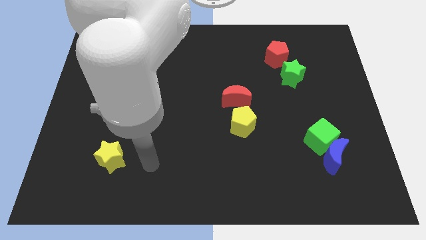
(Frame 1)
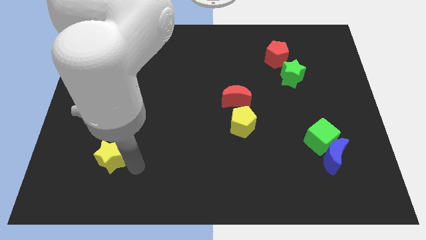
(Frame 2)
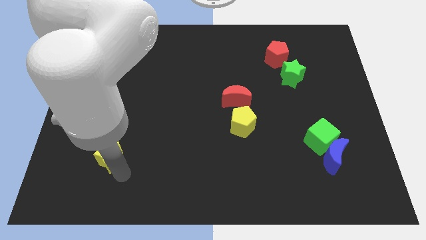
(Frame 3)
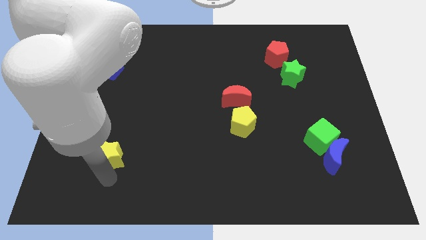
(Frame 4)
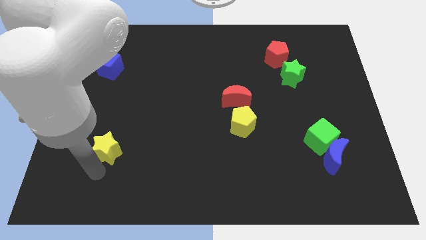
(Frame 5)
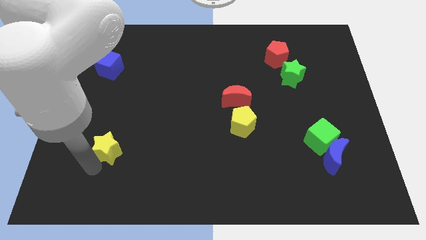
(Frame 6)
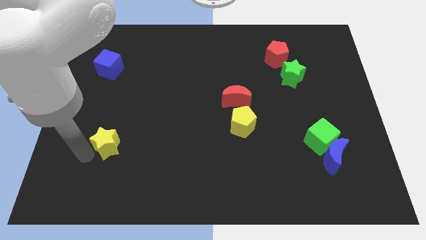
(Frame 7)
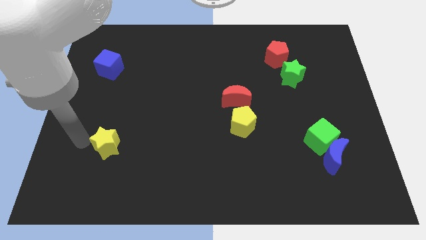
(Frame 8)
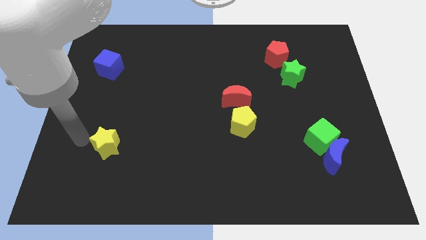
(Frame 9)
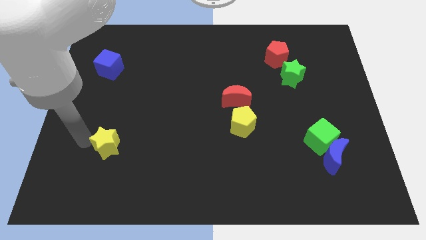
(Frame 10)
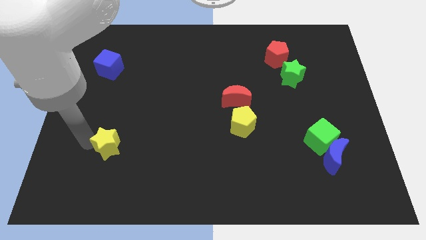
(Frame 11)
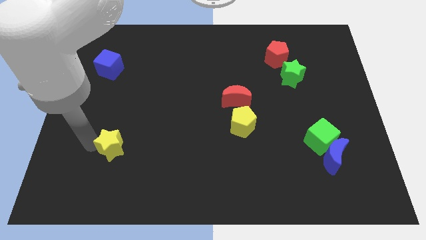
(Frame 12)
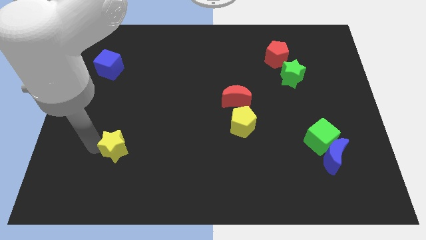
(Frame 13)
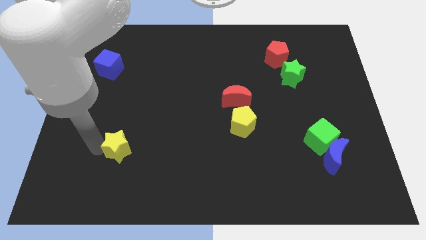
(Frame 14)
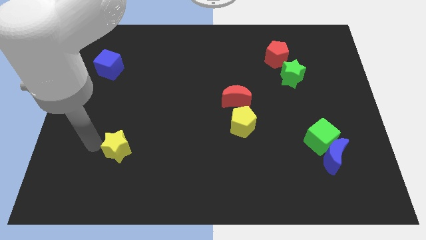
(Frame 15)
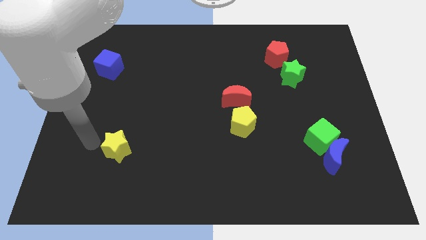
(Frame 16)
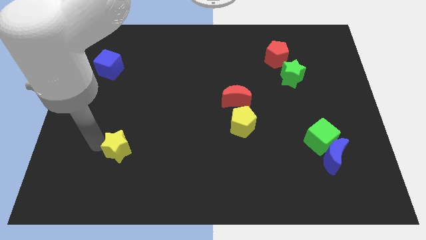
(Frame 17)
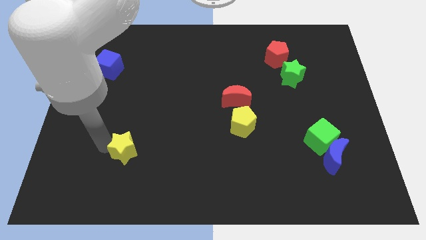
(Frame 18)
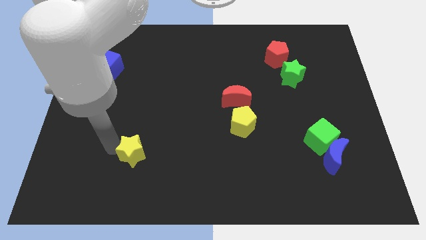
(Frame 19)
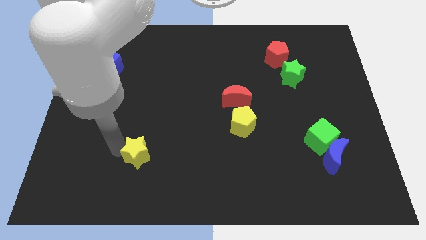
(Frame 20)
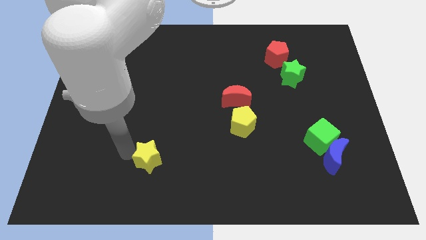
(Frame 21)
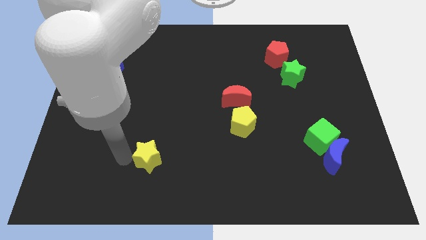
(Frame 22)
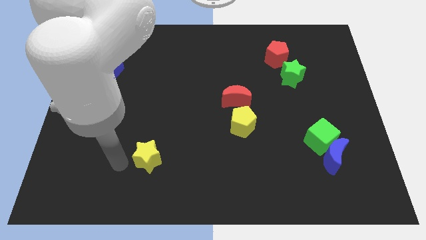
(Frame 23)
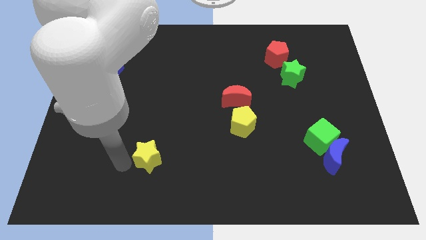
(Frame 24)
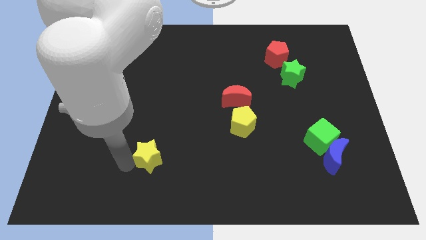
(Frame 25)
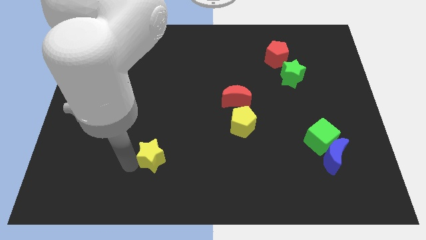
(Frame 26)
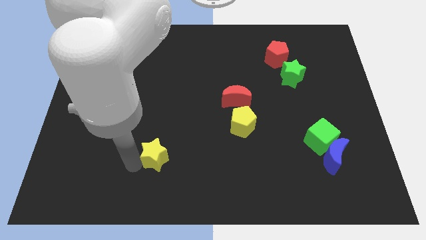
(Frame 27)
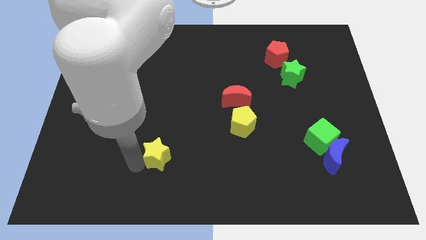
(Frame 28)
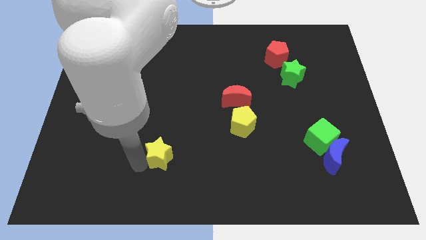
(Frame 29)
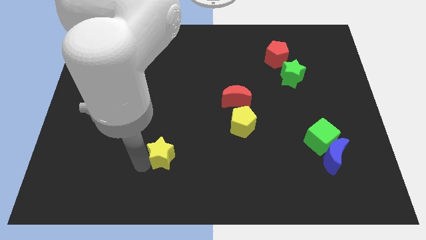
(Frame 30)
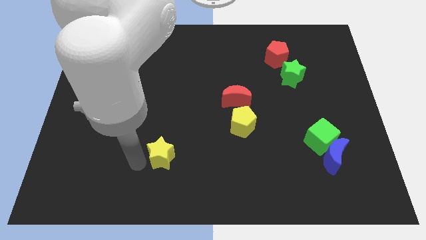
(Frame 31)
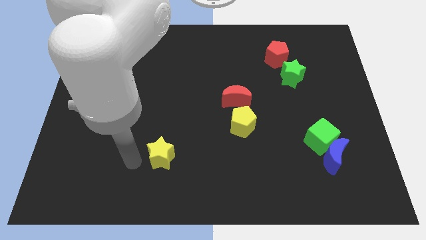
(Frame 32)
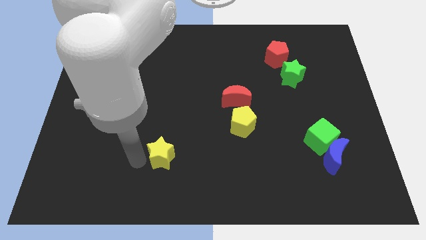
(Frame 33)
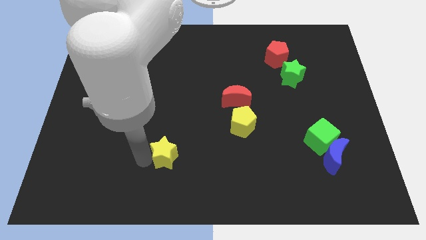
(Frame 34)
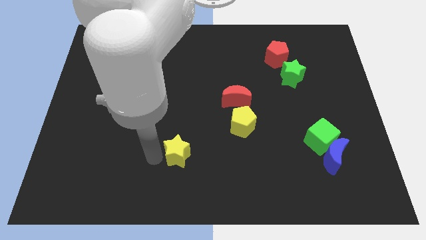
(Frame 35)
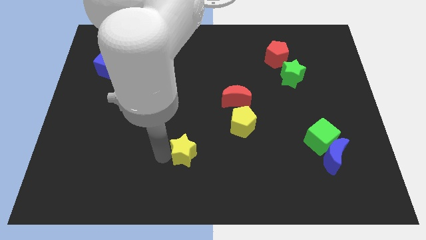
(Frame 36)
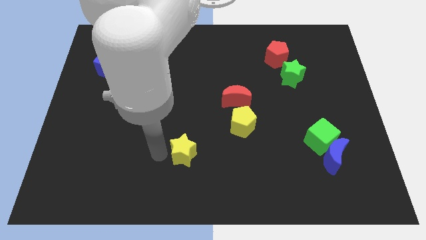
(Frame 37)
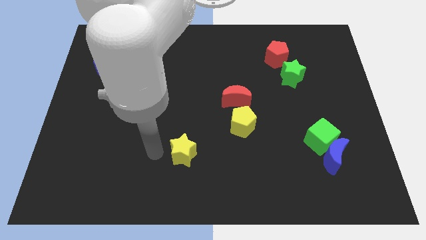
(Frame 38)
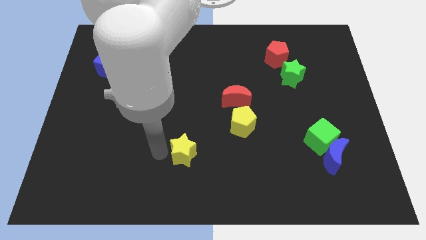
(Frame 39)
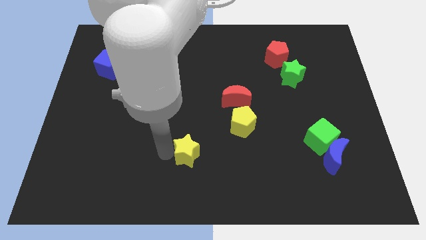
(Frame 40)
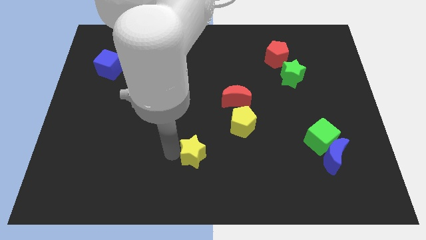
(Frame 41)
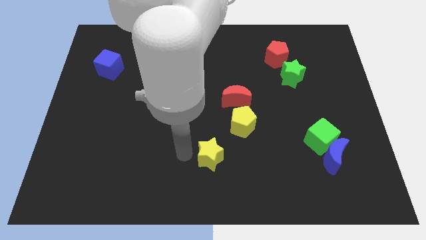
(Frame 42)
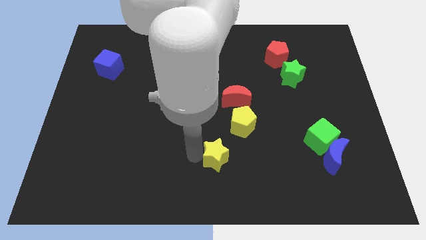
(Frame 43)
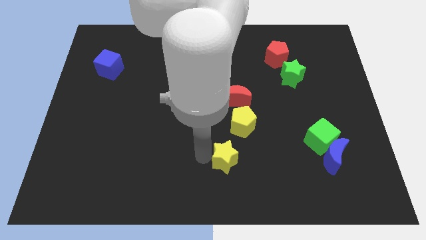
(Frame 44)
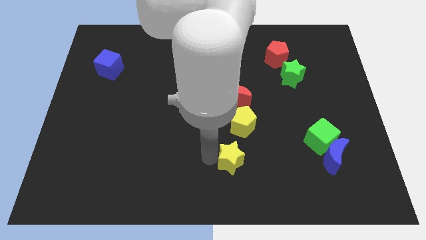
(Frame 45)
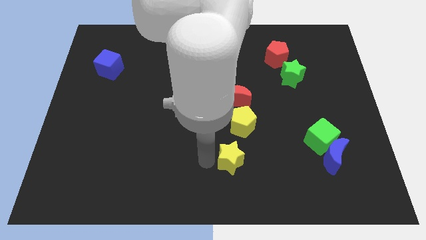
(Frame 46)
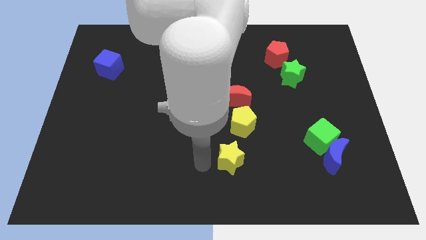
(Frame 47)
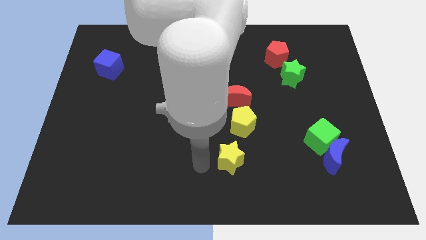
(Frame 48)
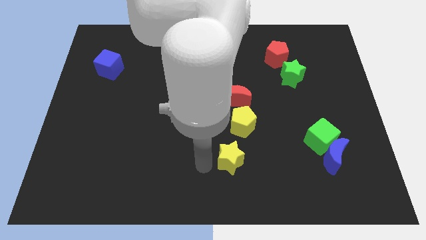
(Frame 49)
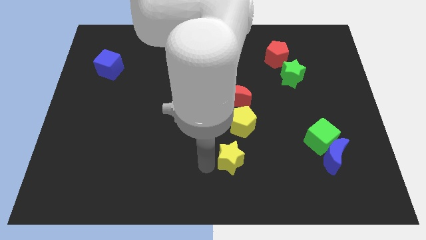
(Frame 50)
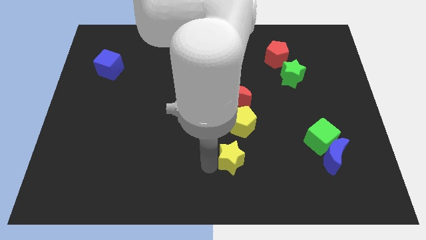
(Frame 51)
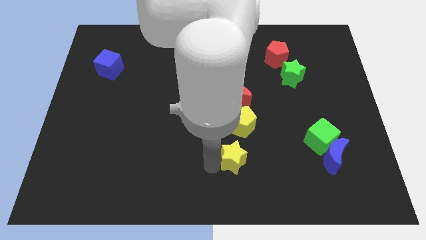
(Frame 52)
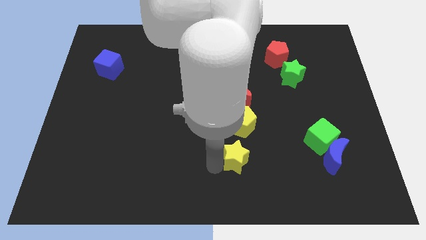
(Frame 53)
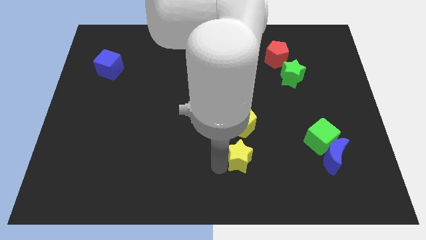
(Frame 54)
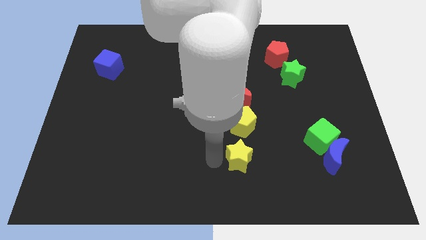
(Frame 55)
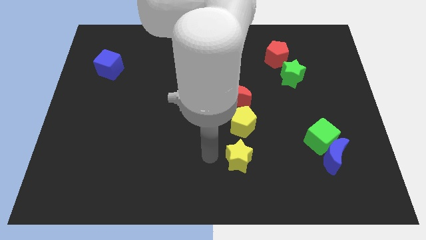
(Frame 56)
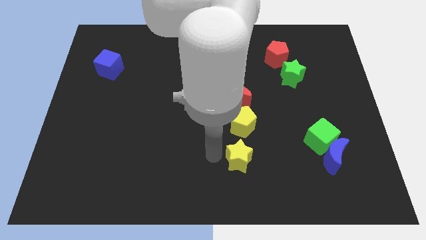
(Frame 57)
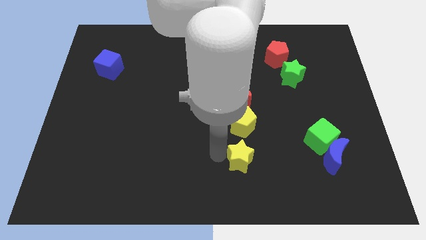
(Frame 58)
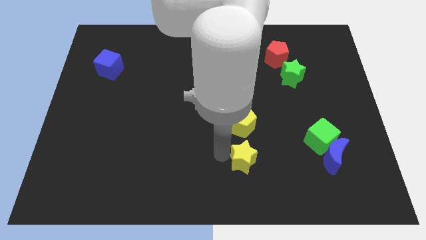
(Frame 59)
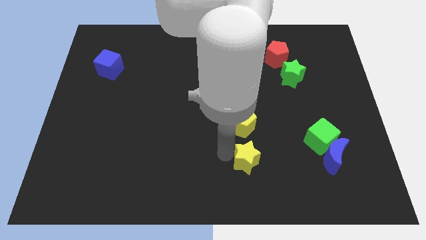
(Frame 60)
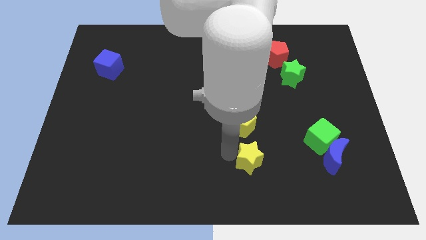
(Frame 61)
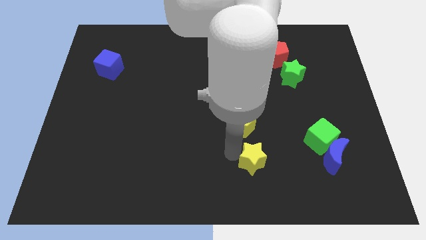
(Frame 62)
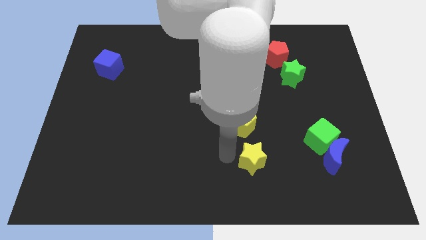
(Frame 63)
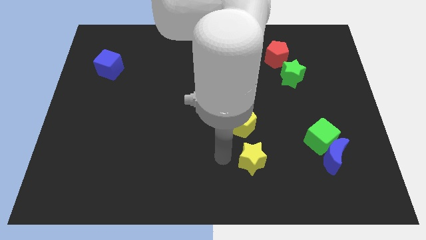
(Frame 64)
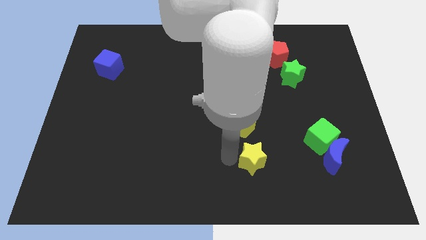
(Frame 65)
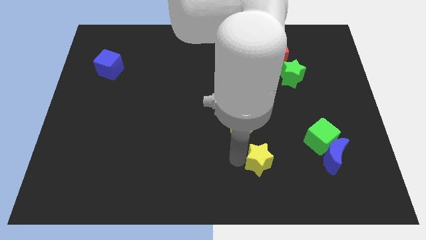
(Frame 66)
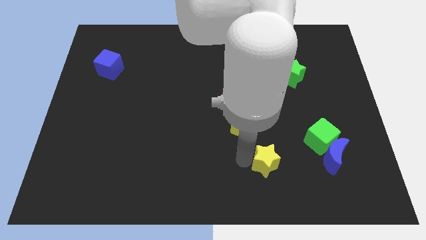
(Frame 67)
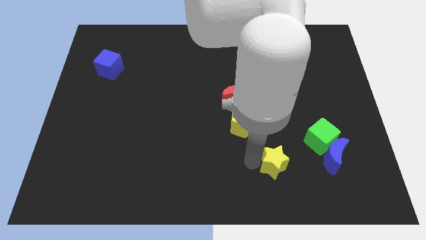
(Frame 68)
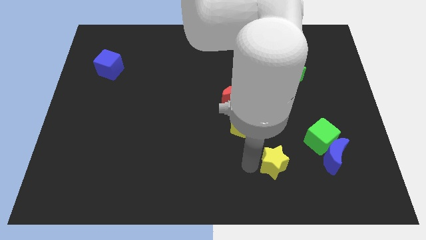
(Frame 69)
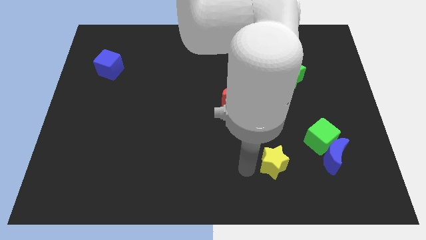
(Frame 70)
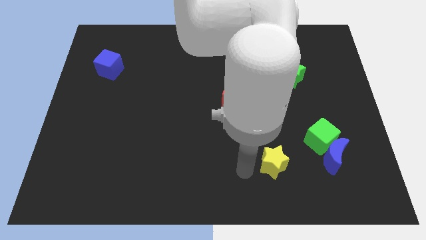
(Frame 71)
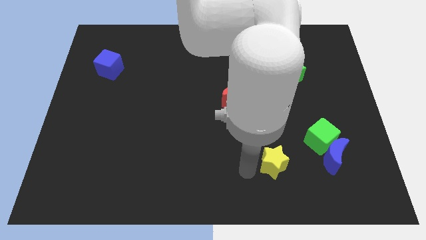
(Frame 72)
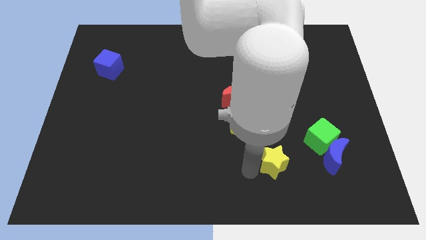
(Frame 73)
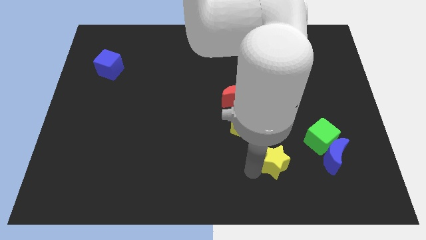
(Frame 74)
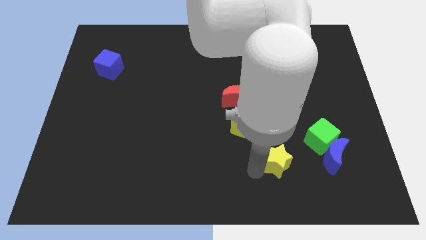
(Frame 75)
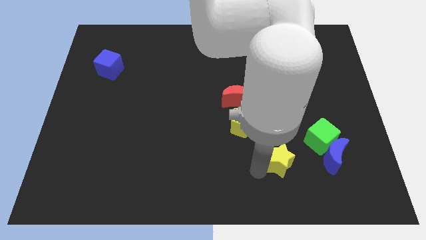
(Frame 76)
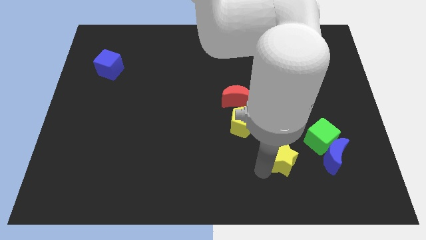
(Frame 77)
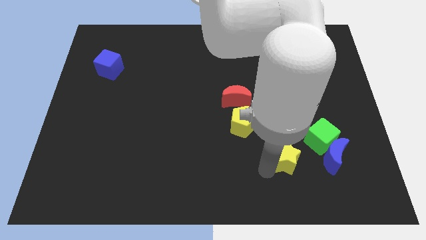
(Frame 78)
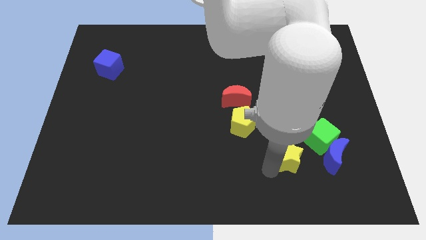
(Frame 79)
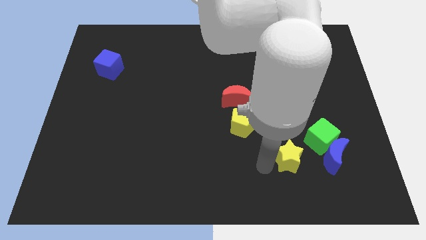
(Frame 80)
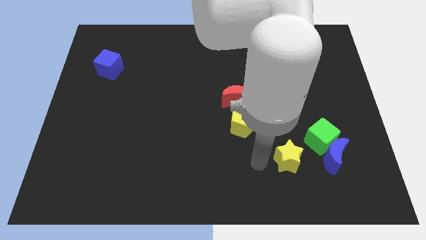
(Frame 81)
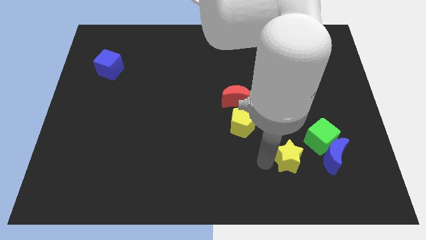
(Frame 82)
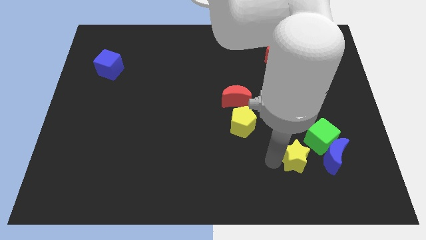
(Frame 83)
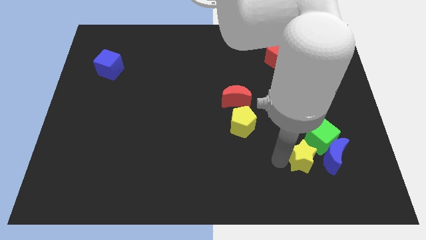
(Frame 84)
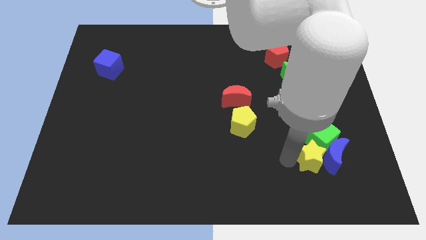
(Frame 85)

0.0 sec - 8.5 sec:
slide the yellow star next to the blue moon
